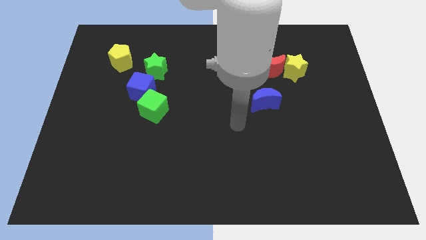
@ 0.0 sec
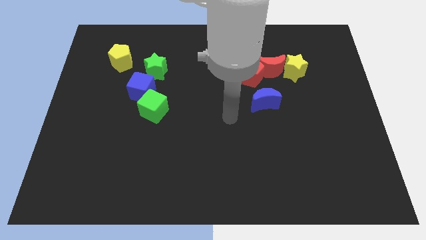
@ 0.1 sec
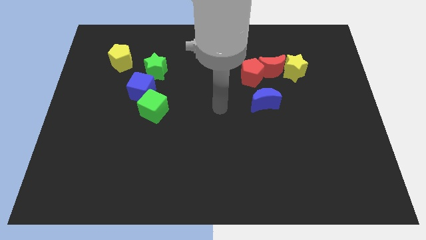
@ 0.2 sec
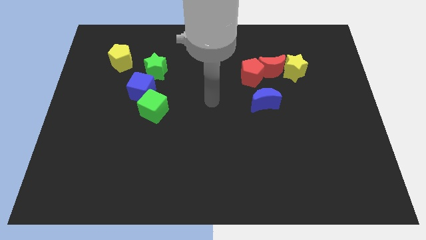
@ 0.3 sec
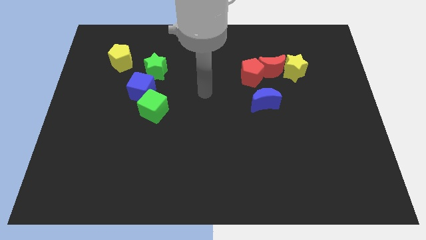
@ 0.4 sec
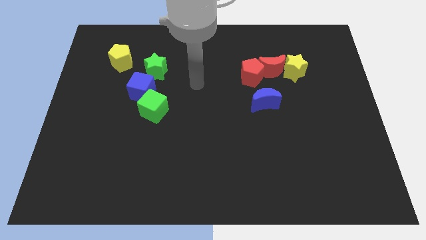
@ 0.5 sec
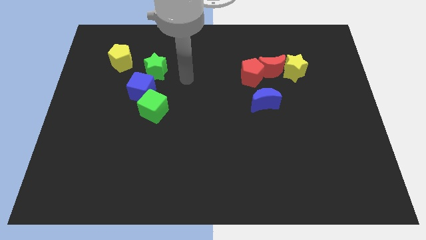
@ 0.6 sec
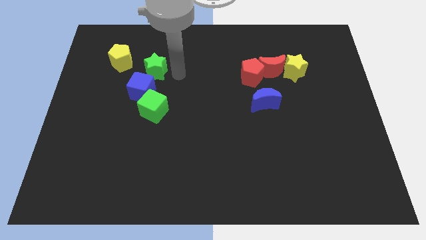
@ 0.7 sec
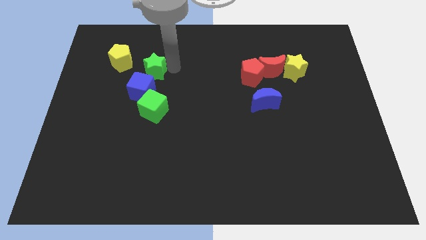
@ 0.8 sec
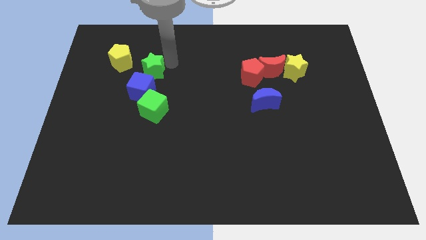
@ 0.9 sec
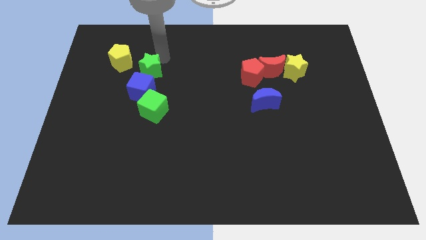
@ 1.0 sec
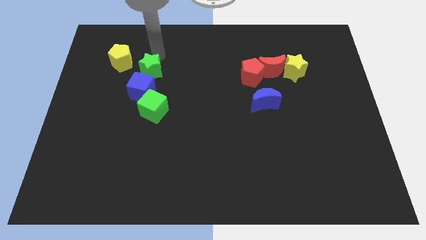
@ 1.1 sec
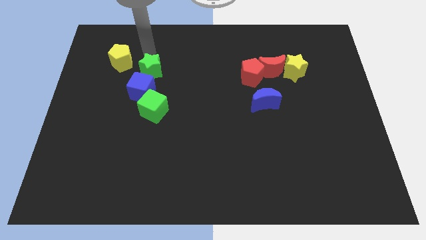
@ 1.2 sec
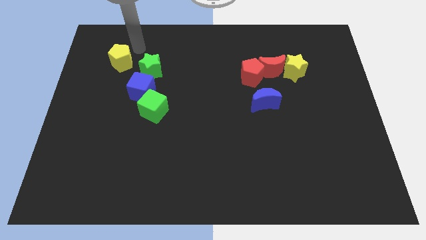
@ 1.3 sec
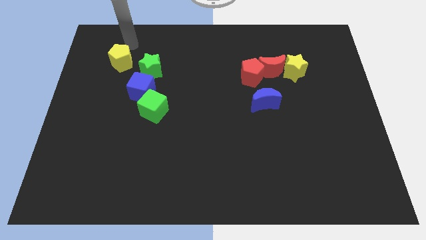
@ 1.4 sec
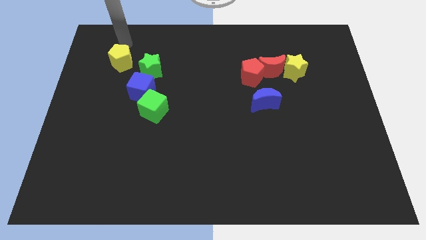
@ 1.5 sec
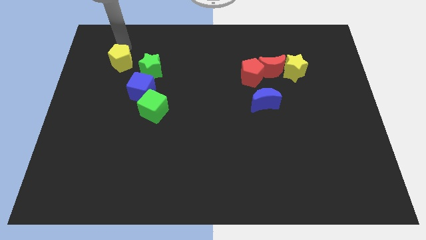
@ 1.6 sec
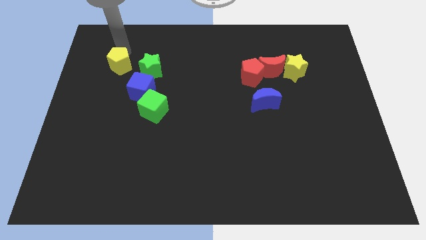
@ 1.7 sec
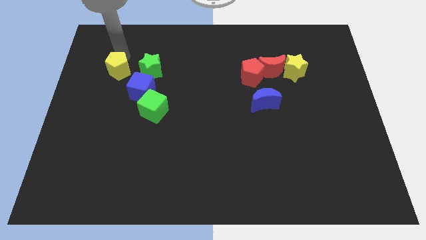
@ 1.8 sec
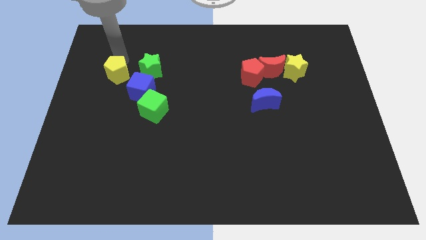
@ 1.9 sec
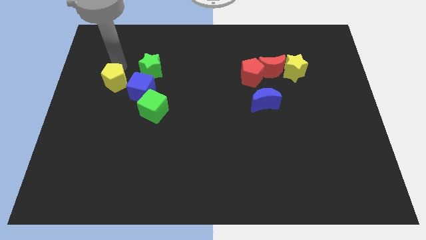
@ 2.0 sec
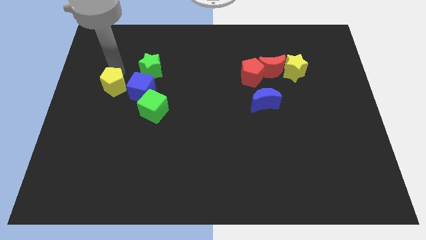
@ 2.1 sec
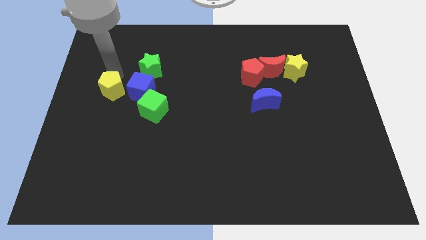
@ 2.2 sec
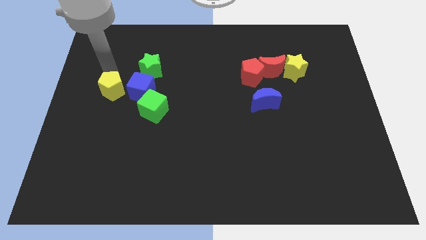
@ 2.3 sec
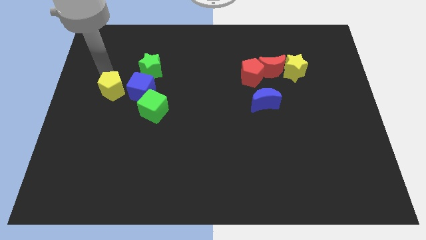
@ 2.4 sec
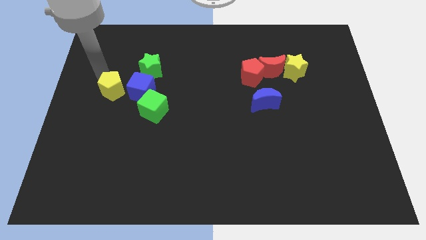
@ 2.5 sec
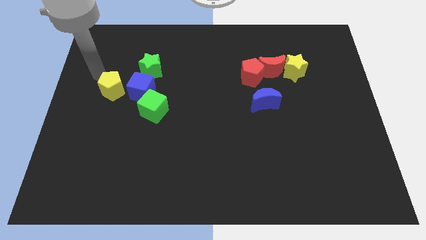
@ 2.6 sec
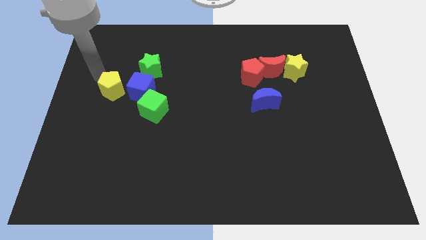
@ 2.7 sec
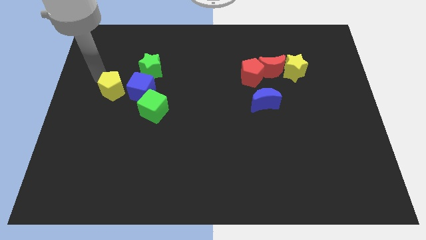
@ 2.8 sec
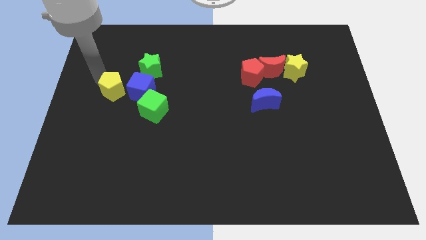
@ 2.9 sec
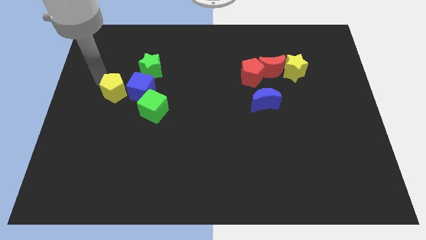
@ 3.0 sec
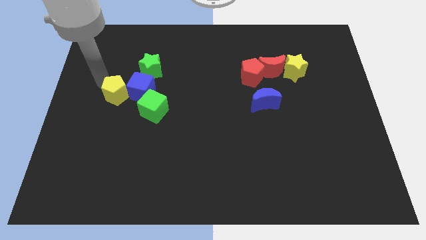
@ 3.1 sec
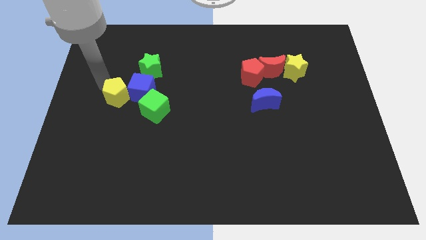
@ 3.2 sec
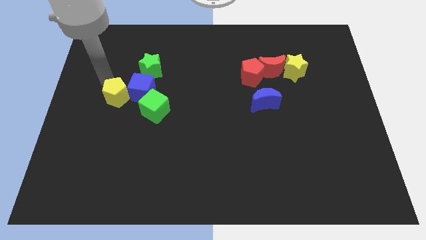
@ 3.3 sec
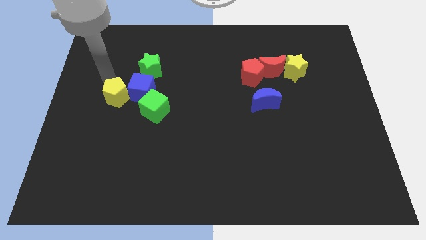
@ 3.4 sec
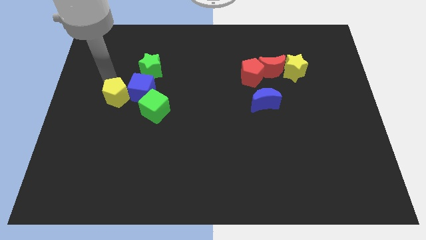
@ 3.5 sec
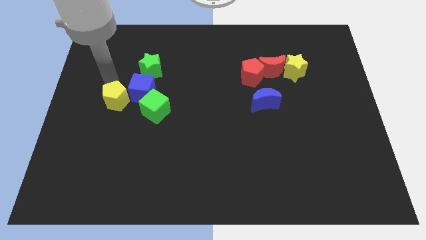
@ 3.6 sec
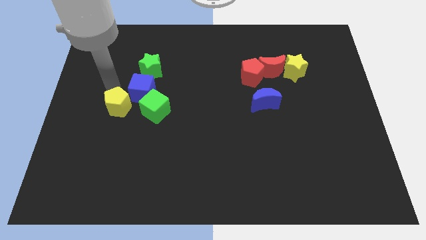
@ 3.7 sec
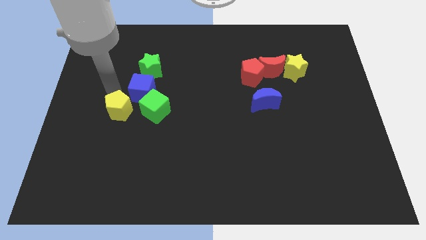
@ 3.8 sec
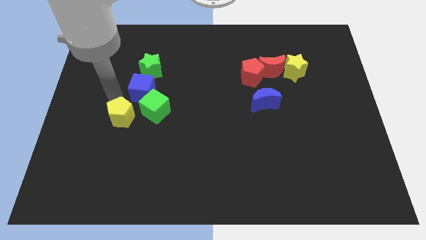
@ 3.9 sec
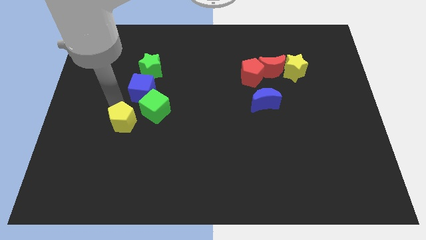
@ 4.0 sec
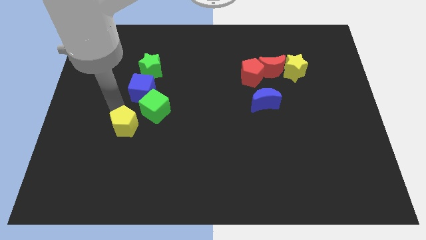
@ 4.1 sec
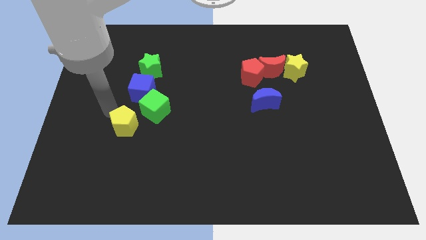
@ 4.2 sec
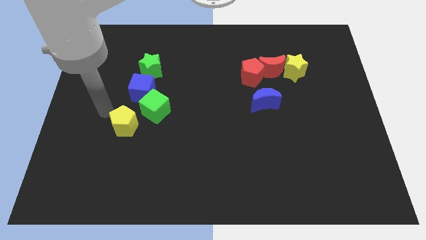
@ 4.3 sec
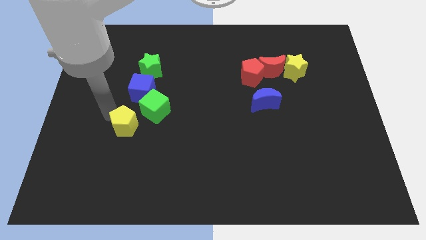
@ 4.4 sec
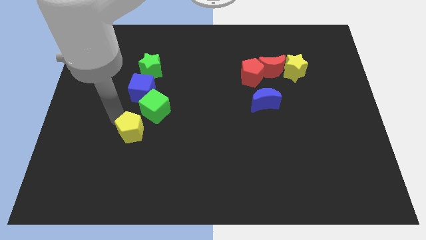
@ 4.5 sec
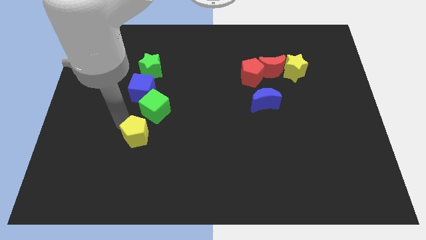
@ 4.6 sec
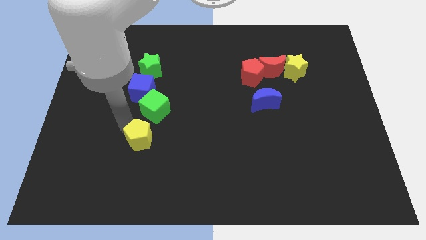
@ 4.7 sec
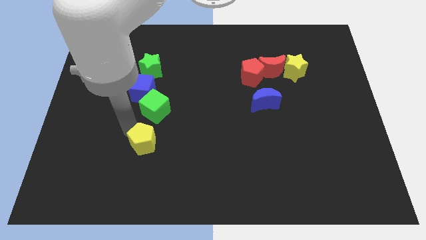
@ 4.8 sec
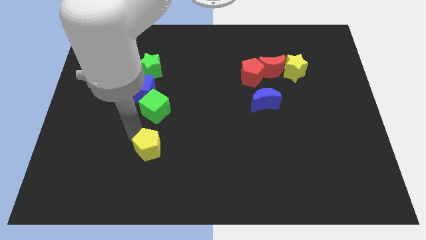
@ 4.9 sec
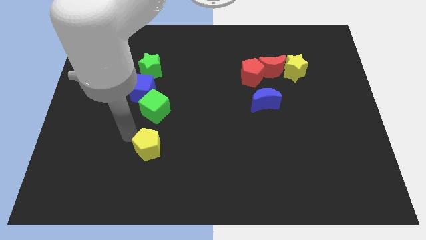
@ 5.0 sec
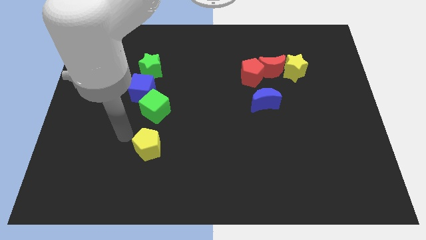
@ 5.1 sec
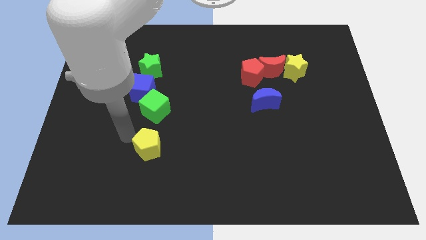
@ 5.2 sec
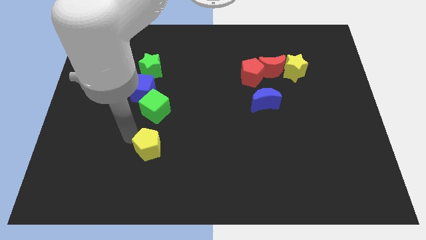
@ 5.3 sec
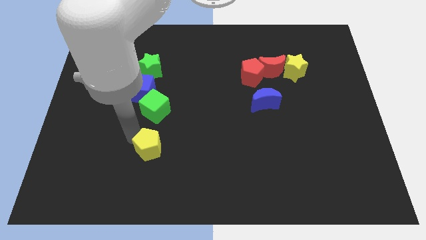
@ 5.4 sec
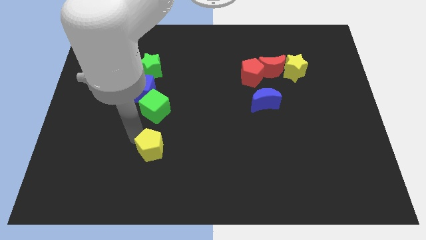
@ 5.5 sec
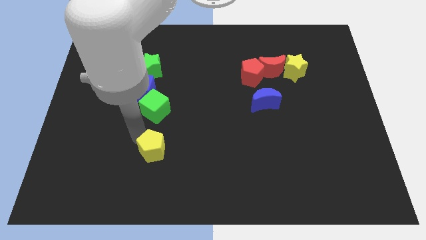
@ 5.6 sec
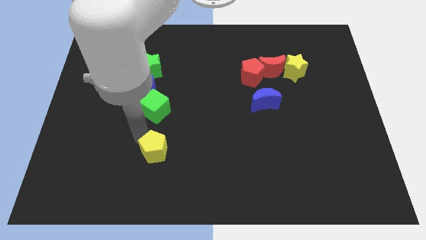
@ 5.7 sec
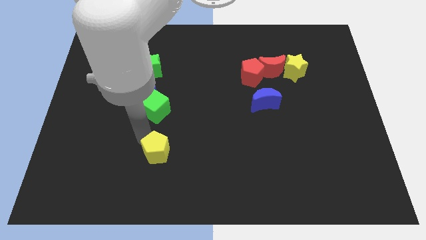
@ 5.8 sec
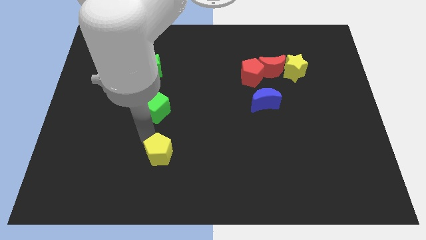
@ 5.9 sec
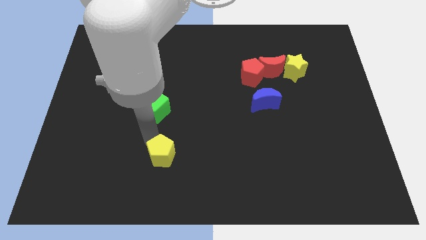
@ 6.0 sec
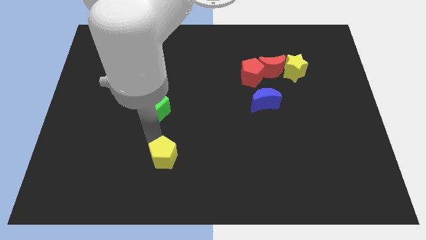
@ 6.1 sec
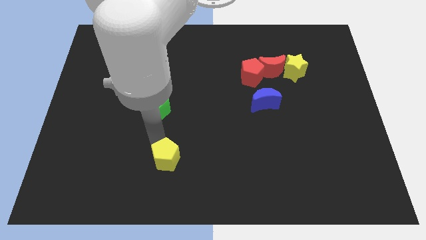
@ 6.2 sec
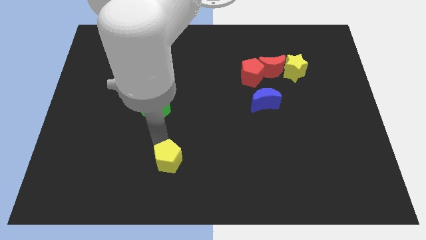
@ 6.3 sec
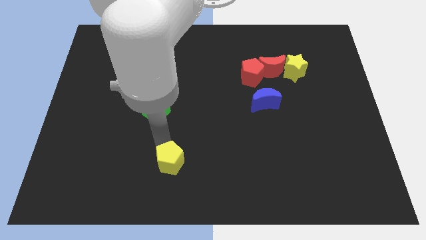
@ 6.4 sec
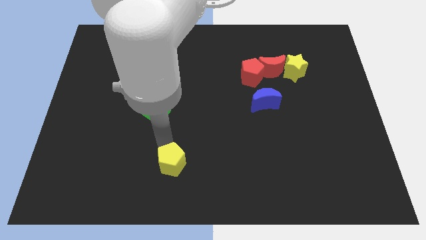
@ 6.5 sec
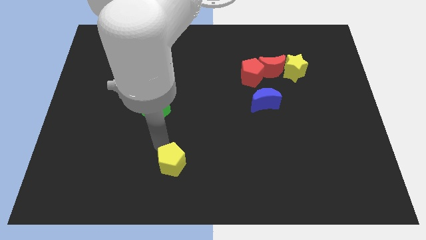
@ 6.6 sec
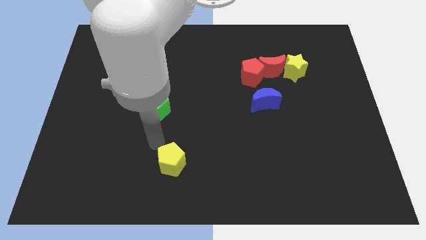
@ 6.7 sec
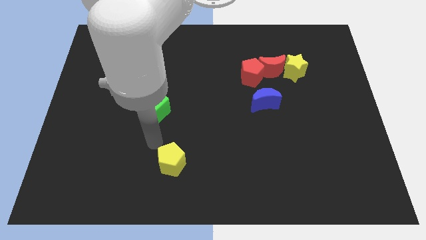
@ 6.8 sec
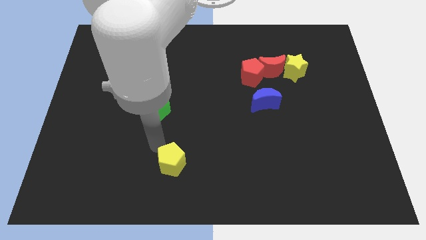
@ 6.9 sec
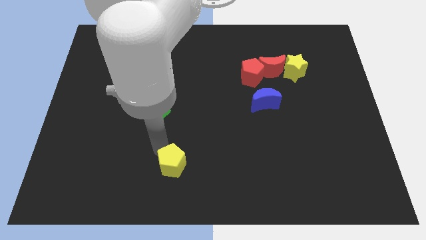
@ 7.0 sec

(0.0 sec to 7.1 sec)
push the yellow pentagon to the bottom side
